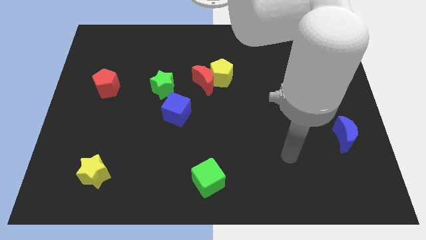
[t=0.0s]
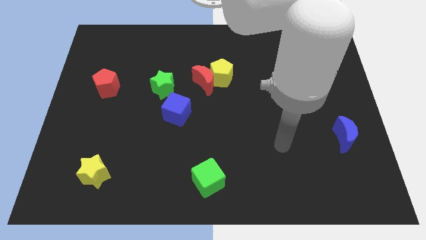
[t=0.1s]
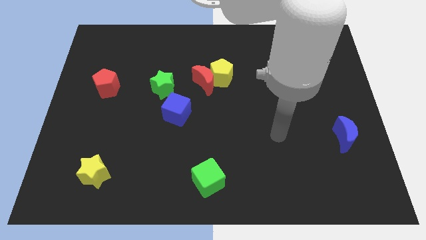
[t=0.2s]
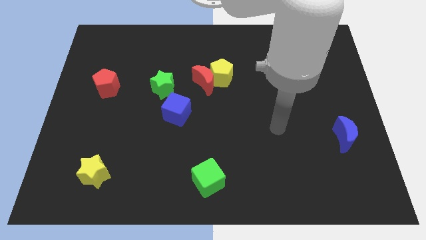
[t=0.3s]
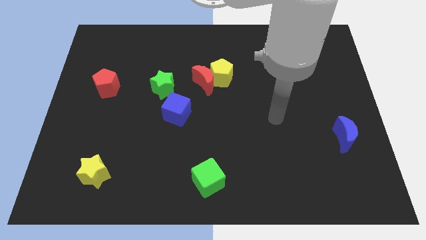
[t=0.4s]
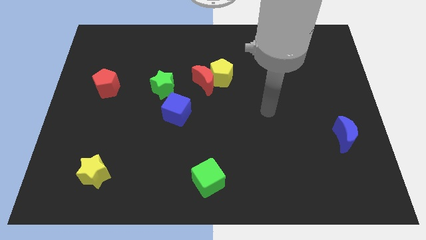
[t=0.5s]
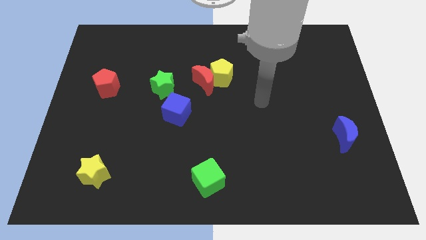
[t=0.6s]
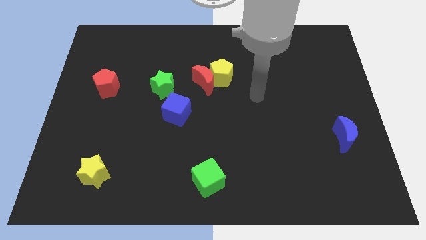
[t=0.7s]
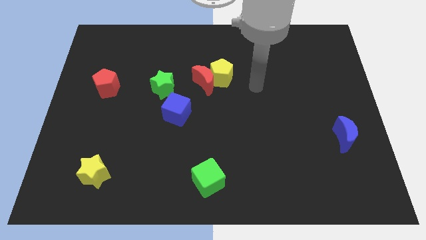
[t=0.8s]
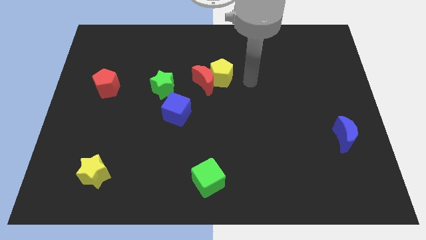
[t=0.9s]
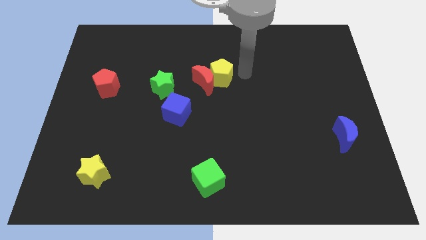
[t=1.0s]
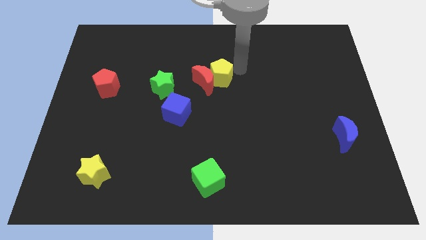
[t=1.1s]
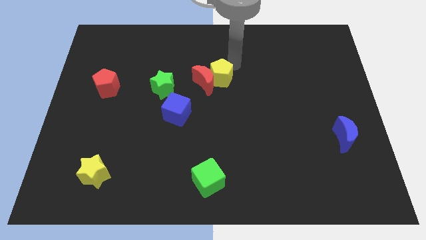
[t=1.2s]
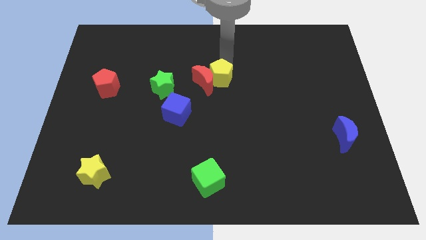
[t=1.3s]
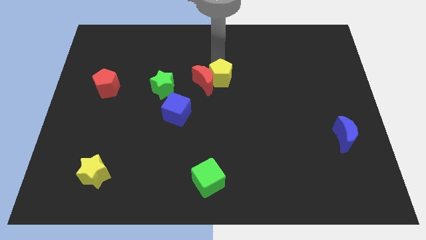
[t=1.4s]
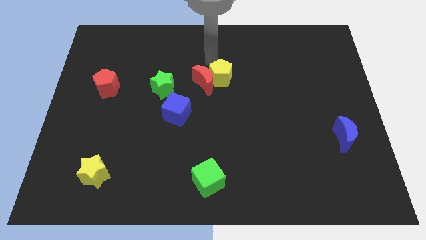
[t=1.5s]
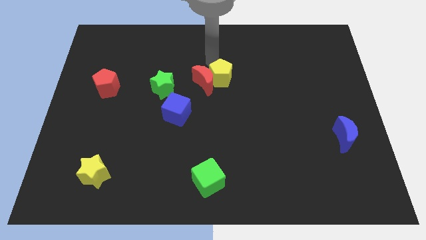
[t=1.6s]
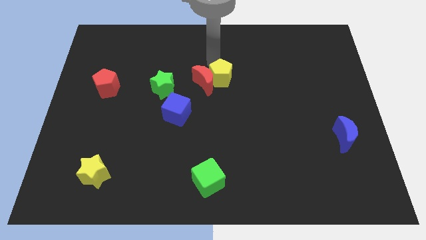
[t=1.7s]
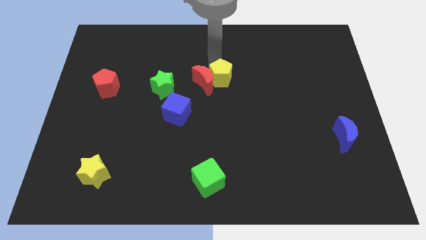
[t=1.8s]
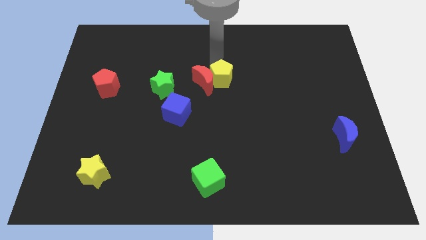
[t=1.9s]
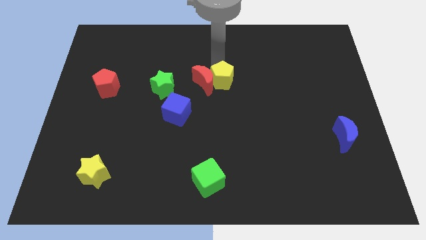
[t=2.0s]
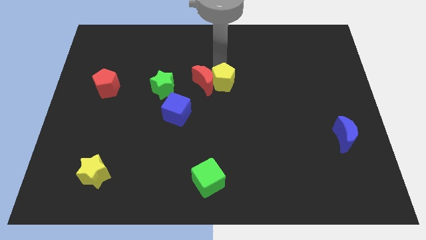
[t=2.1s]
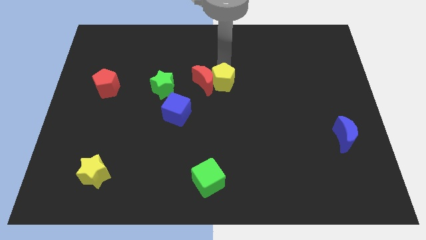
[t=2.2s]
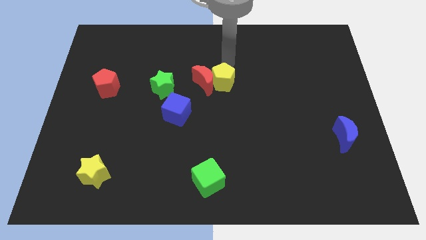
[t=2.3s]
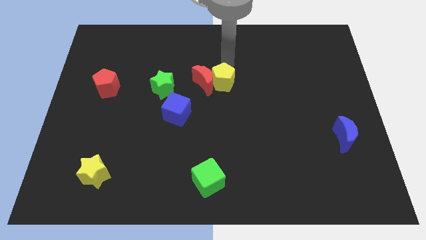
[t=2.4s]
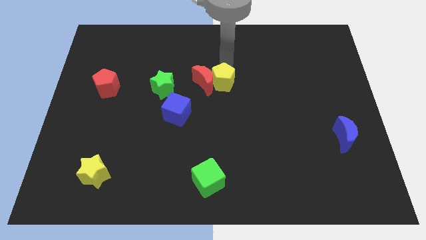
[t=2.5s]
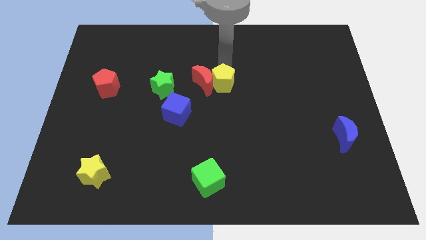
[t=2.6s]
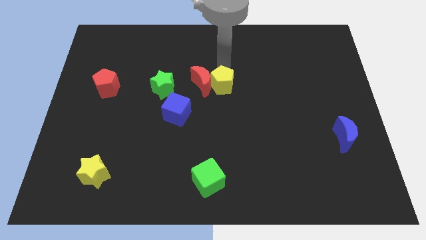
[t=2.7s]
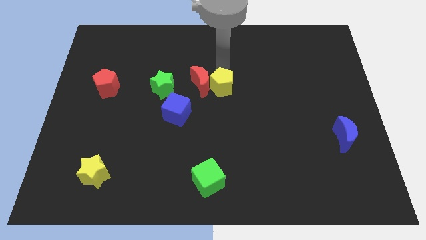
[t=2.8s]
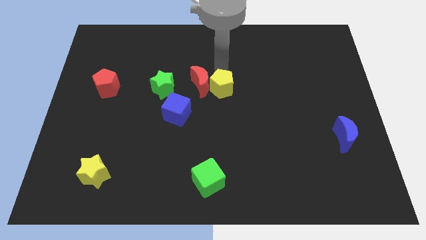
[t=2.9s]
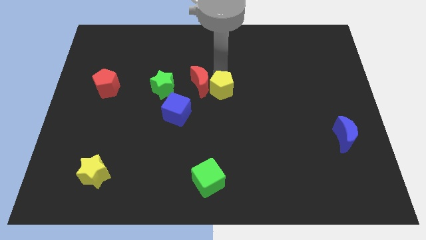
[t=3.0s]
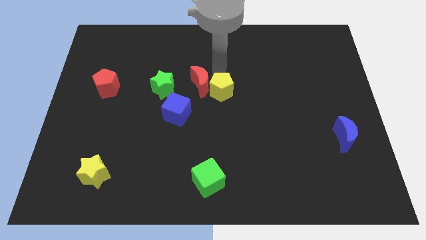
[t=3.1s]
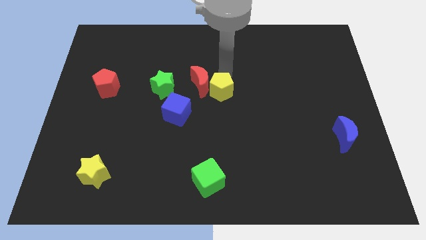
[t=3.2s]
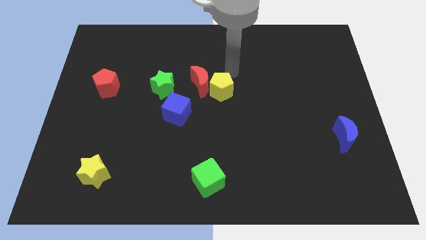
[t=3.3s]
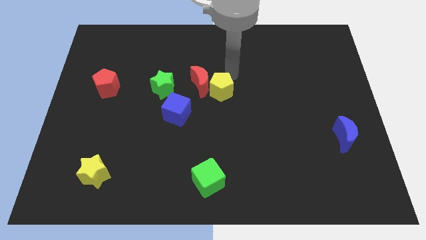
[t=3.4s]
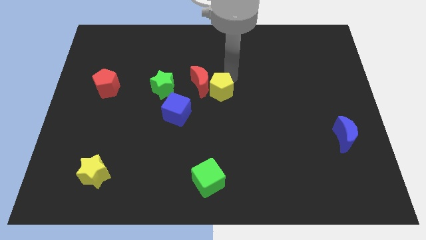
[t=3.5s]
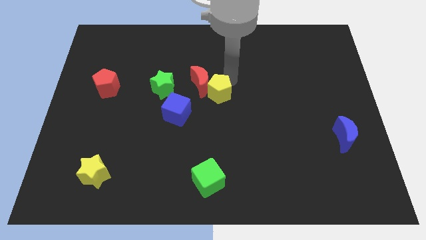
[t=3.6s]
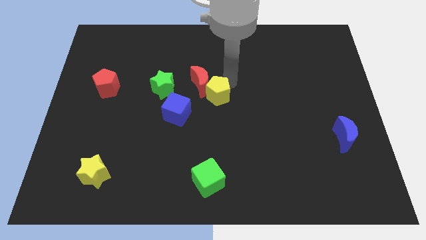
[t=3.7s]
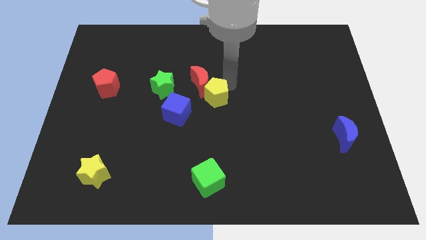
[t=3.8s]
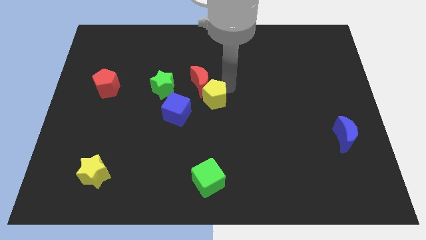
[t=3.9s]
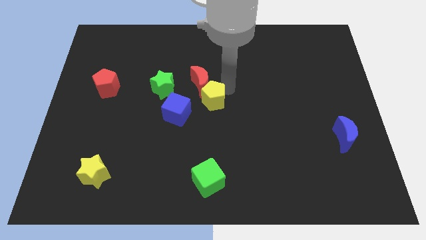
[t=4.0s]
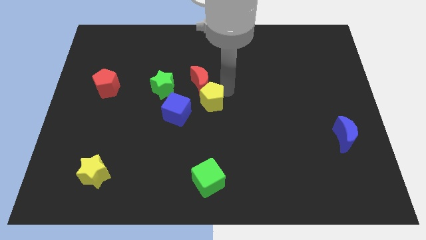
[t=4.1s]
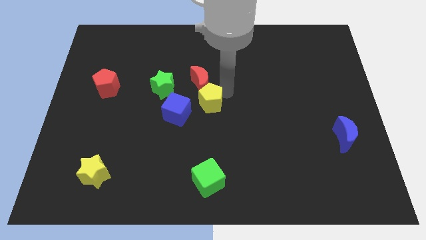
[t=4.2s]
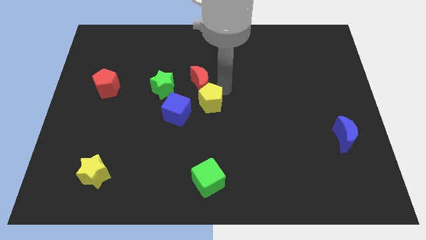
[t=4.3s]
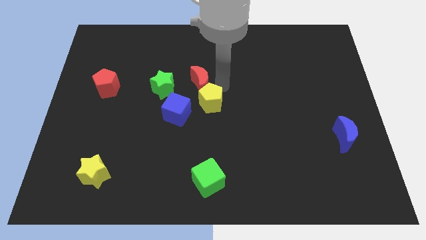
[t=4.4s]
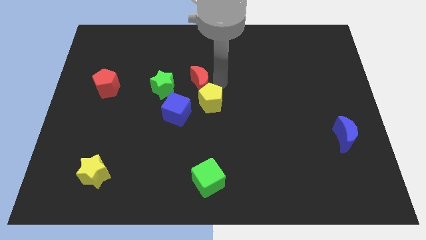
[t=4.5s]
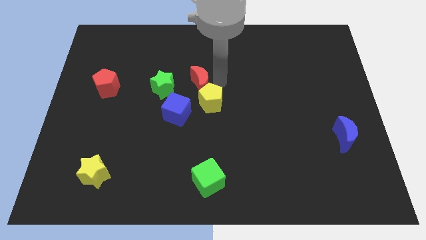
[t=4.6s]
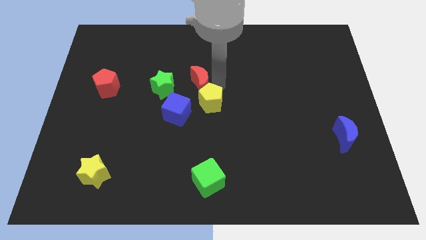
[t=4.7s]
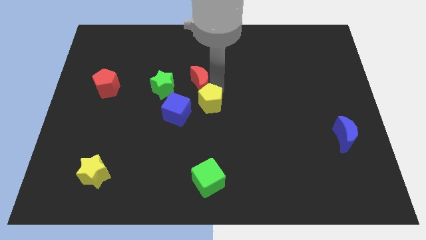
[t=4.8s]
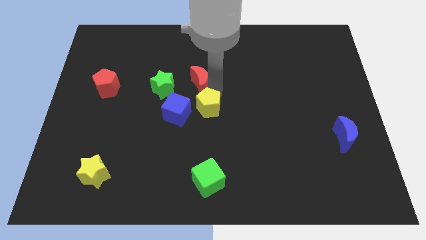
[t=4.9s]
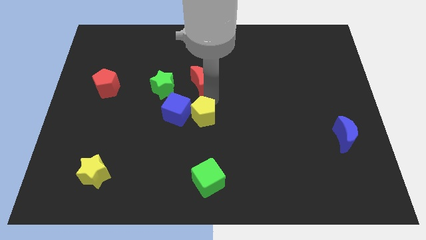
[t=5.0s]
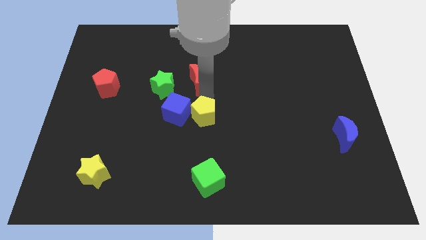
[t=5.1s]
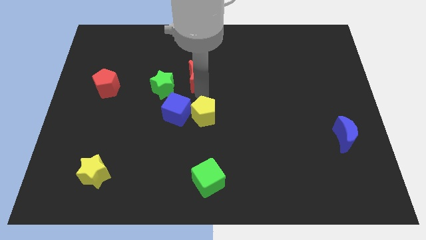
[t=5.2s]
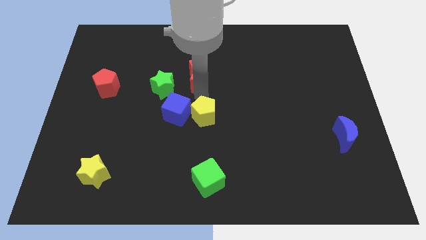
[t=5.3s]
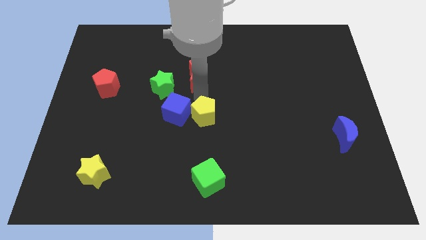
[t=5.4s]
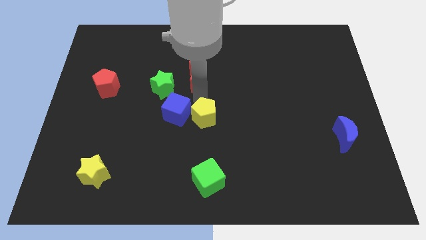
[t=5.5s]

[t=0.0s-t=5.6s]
put the yellow pentagon to the top side of the green cube

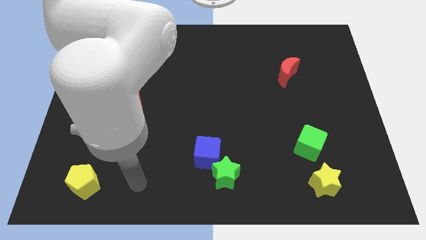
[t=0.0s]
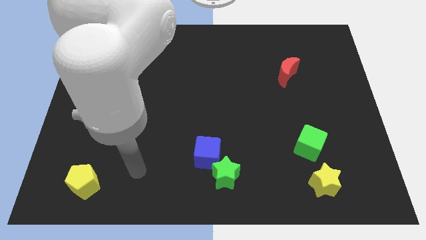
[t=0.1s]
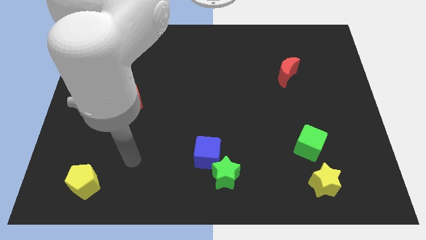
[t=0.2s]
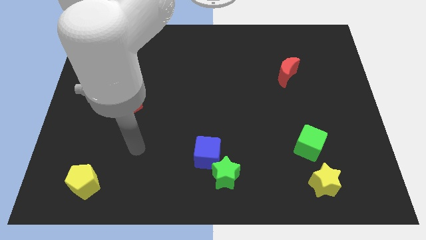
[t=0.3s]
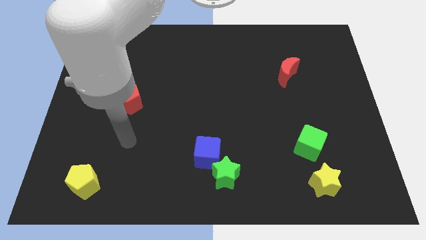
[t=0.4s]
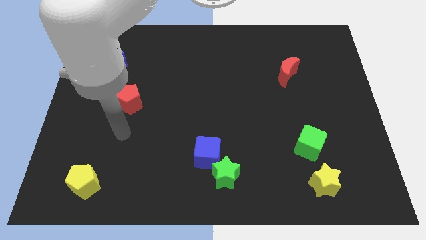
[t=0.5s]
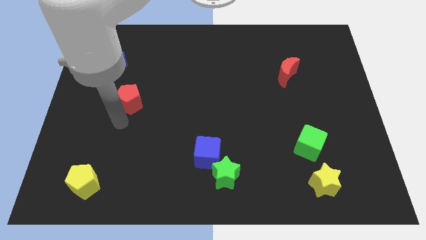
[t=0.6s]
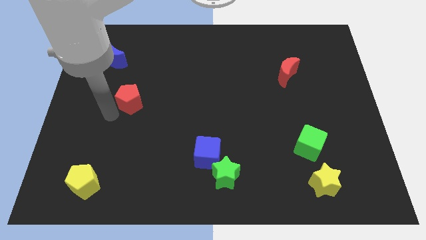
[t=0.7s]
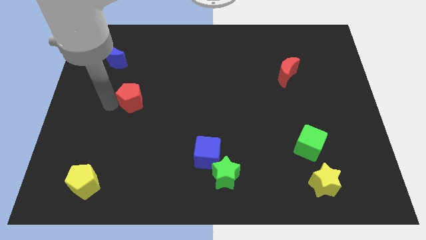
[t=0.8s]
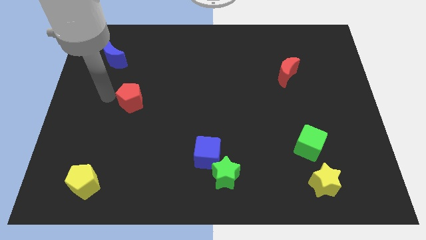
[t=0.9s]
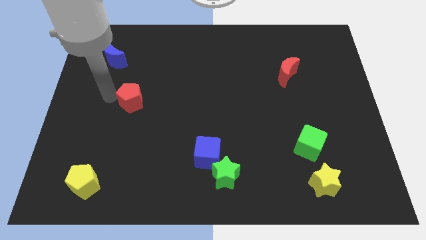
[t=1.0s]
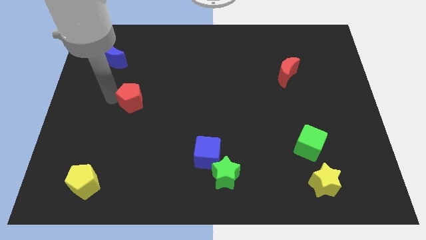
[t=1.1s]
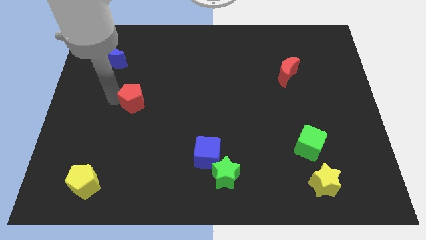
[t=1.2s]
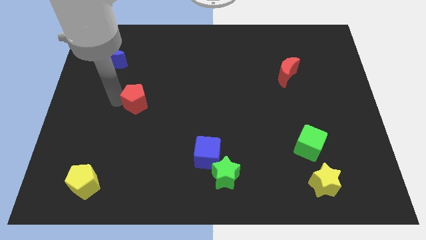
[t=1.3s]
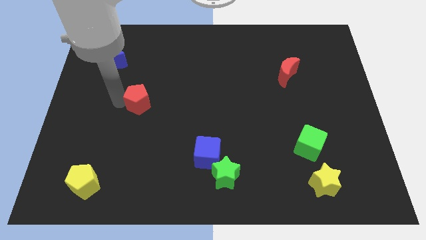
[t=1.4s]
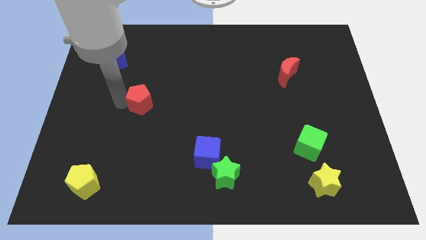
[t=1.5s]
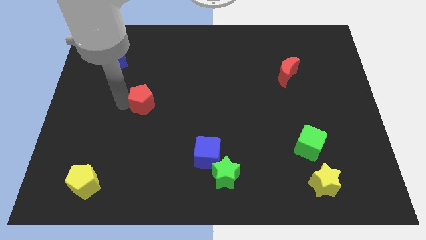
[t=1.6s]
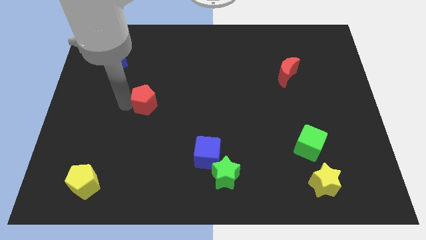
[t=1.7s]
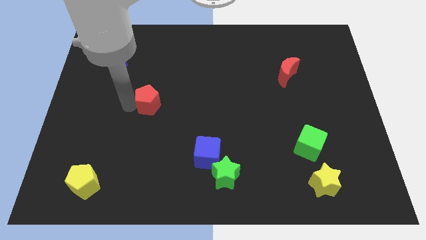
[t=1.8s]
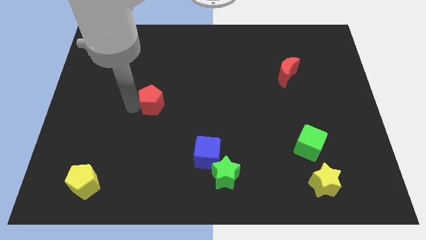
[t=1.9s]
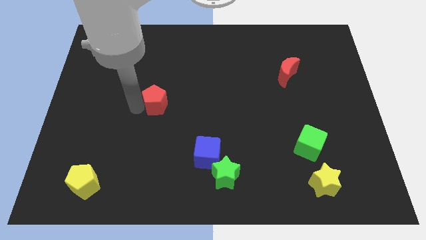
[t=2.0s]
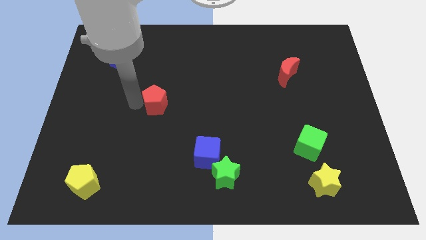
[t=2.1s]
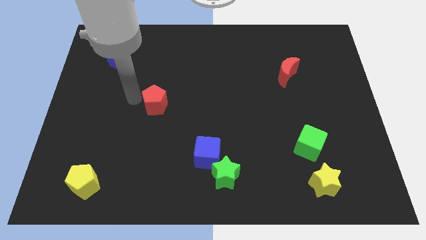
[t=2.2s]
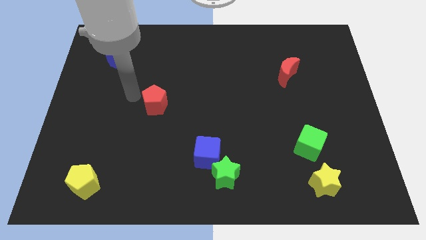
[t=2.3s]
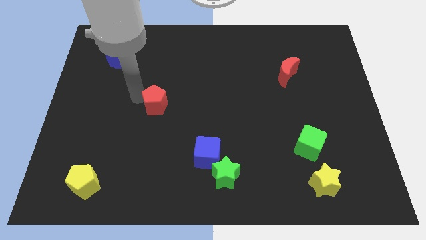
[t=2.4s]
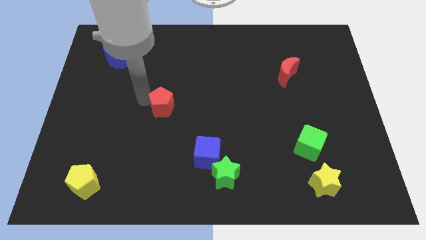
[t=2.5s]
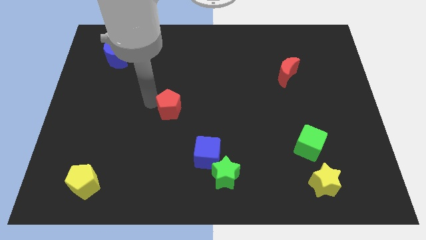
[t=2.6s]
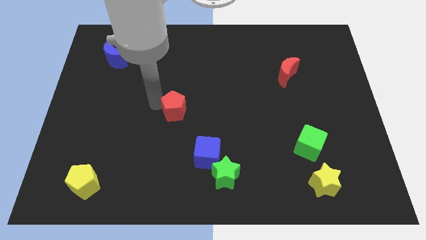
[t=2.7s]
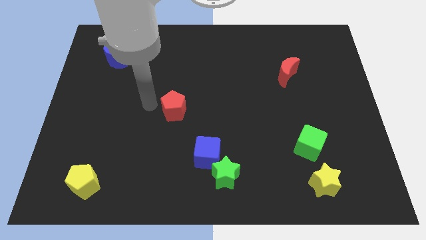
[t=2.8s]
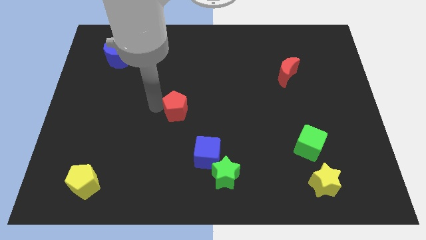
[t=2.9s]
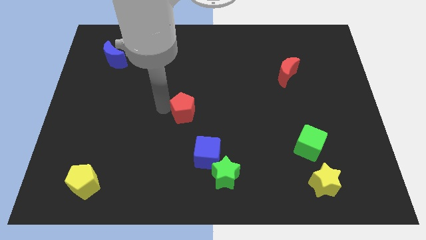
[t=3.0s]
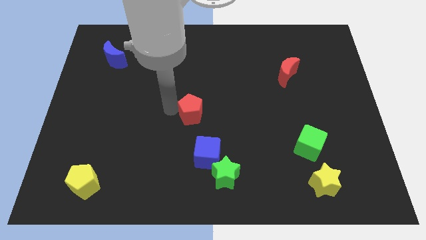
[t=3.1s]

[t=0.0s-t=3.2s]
move the red pentagon to the top side of the blue cube
